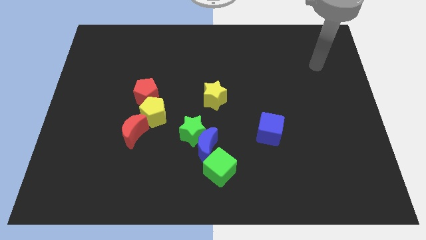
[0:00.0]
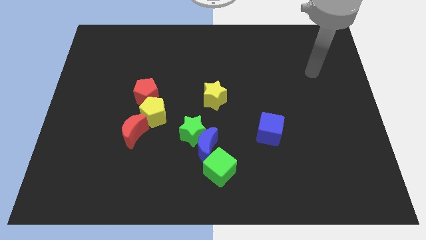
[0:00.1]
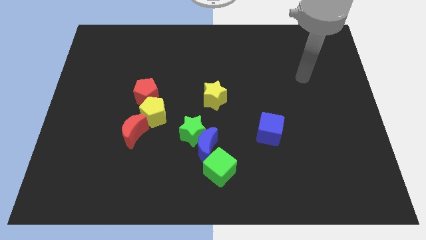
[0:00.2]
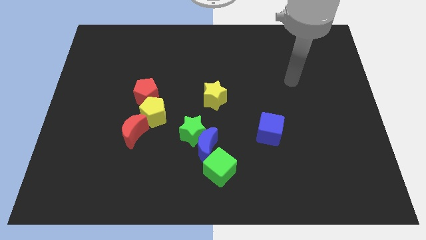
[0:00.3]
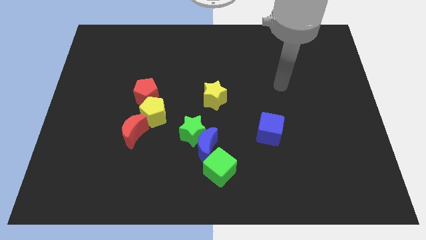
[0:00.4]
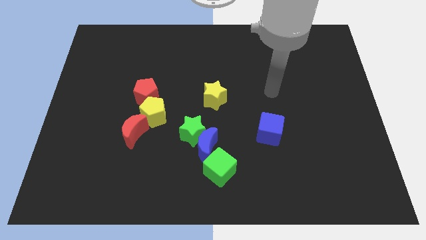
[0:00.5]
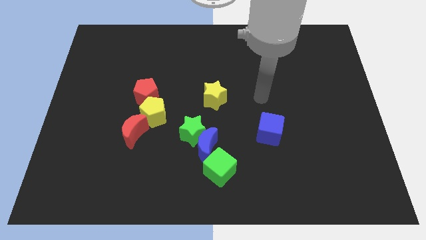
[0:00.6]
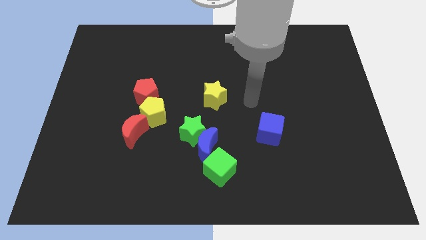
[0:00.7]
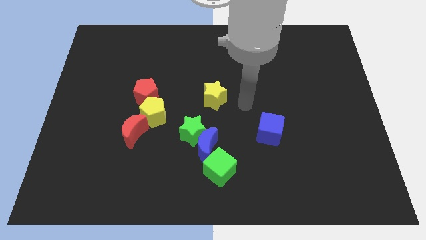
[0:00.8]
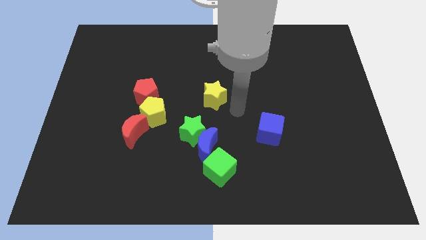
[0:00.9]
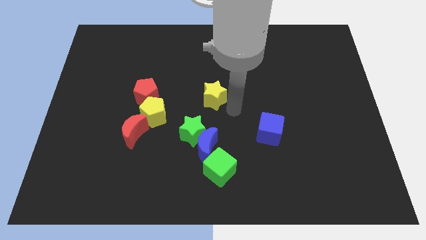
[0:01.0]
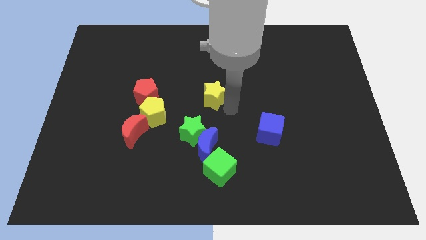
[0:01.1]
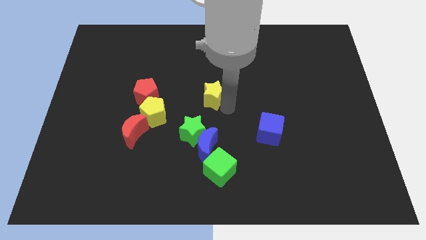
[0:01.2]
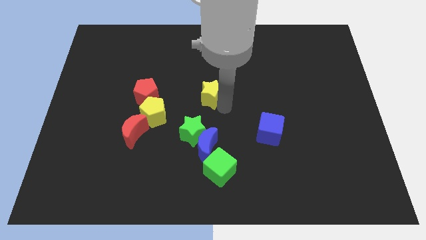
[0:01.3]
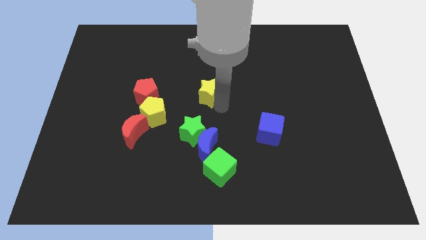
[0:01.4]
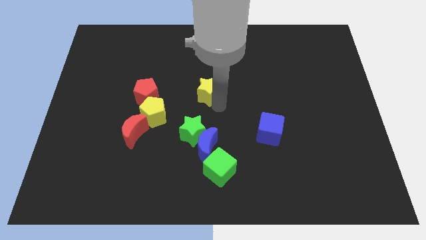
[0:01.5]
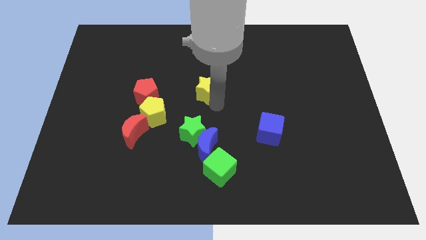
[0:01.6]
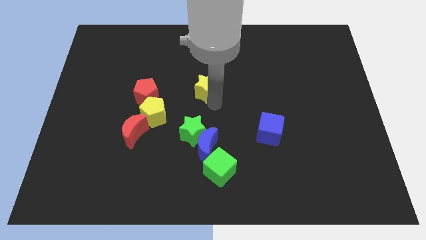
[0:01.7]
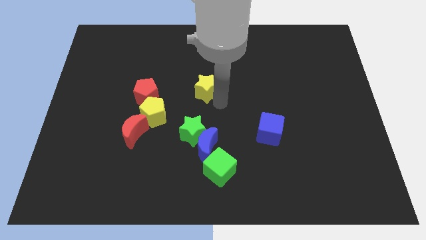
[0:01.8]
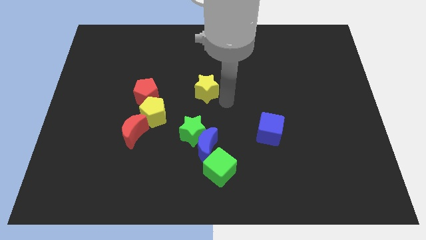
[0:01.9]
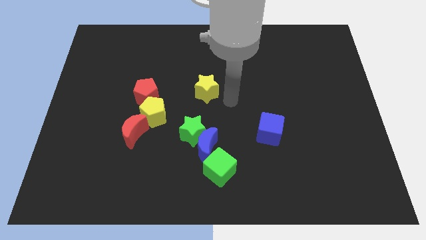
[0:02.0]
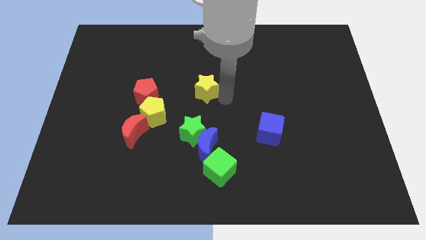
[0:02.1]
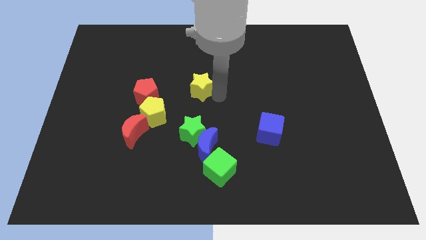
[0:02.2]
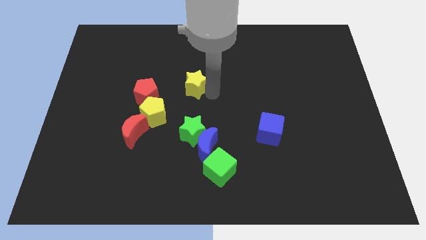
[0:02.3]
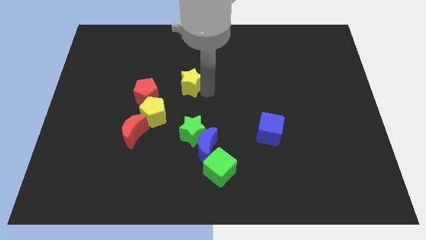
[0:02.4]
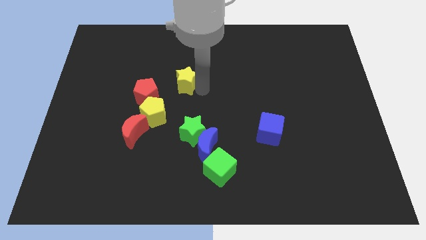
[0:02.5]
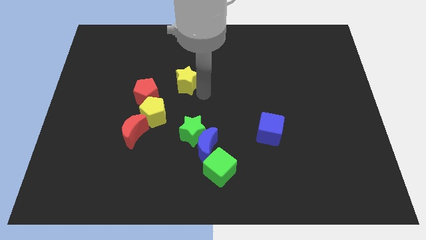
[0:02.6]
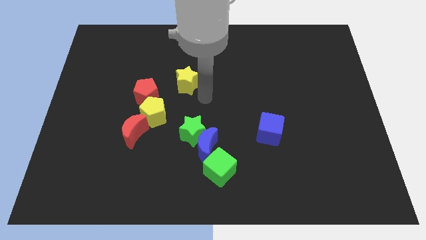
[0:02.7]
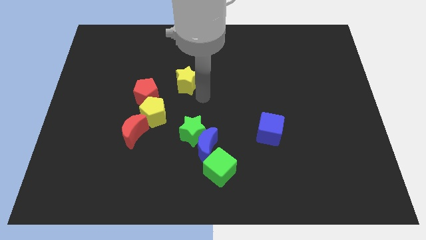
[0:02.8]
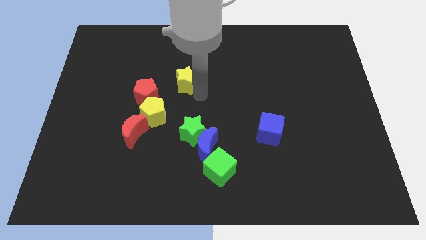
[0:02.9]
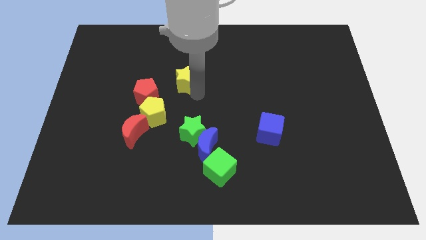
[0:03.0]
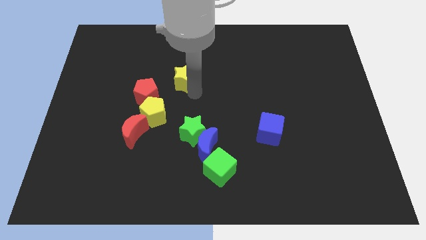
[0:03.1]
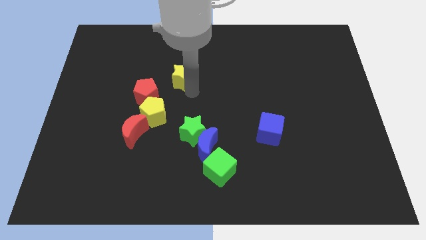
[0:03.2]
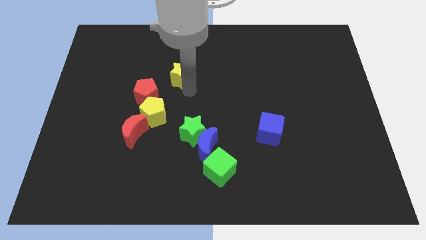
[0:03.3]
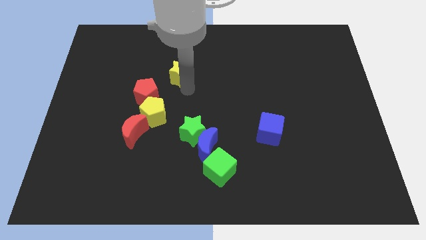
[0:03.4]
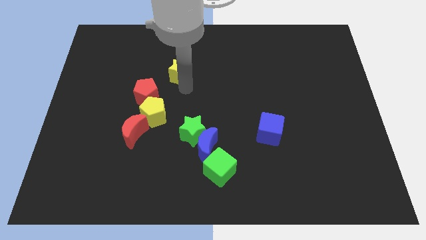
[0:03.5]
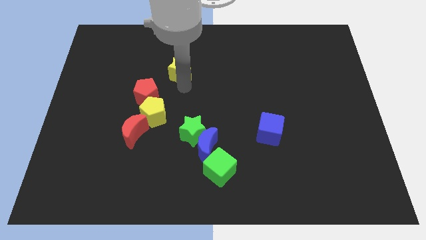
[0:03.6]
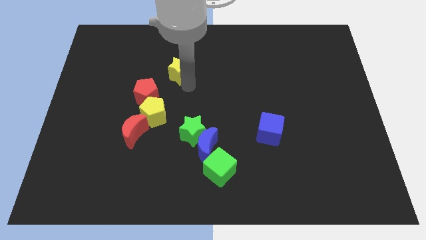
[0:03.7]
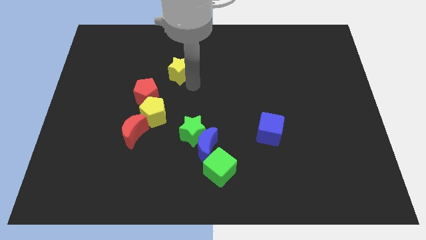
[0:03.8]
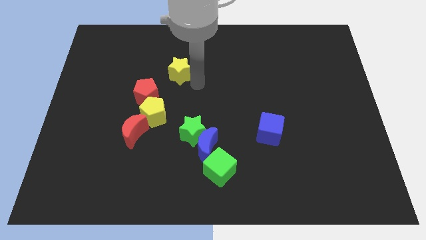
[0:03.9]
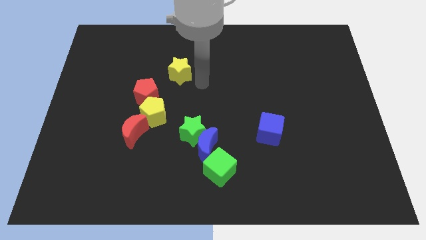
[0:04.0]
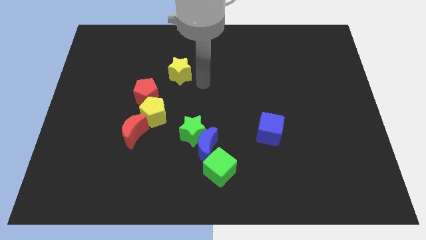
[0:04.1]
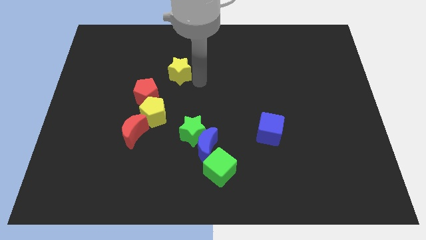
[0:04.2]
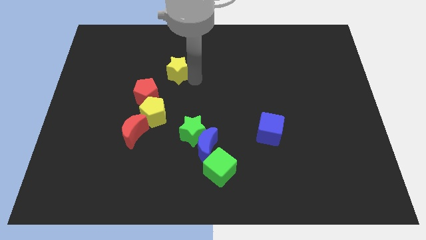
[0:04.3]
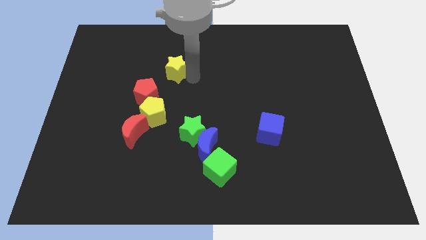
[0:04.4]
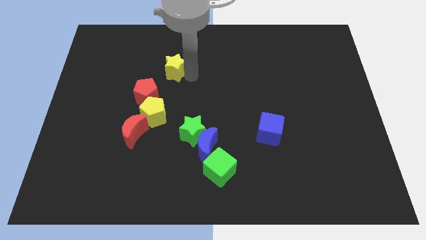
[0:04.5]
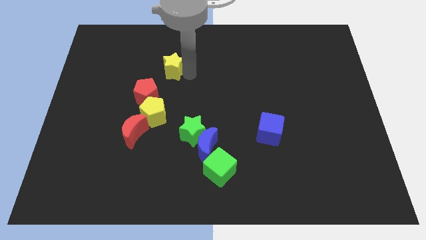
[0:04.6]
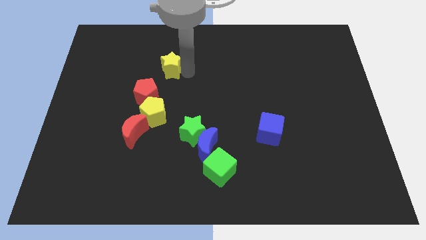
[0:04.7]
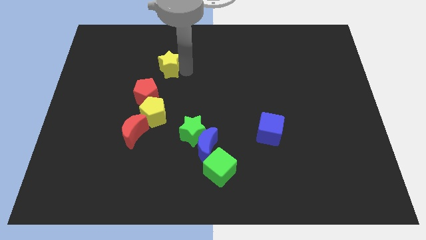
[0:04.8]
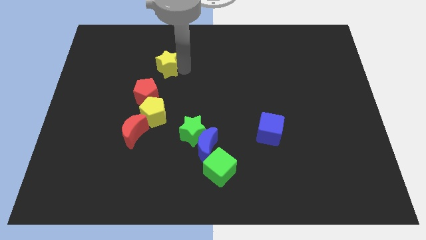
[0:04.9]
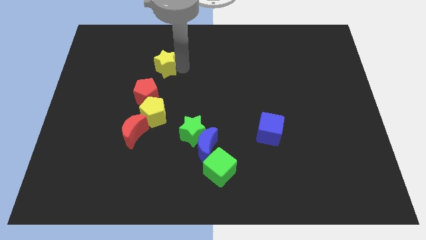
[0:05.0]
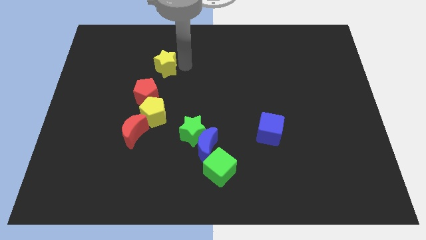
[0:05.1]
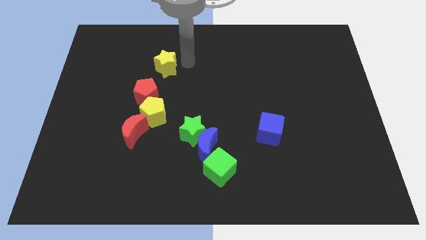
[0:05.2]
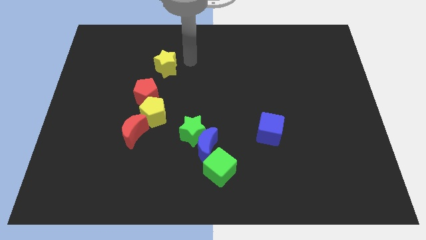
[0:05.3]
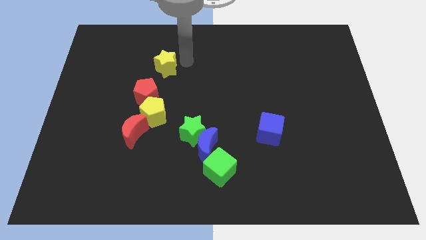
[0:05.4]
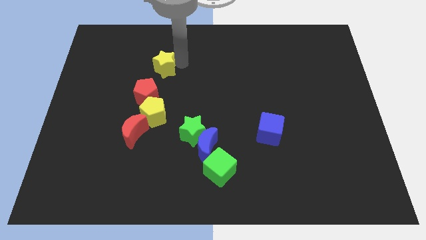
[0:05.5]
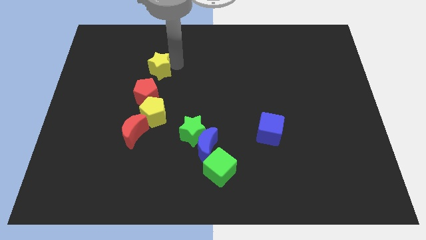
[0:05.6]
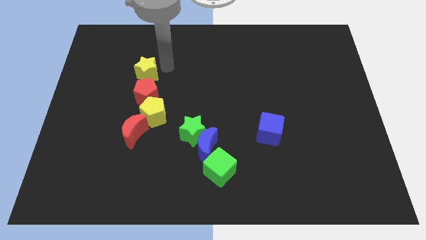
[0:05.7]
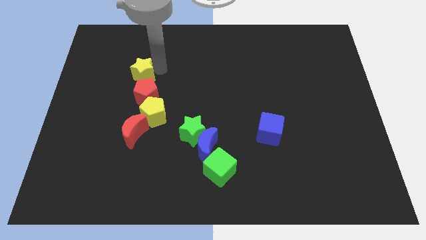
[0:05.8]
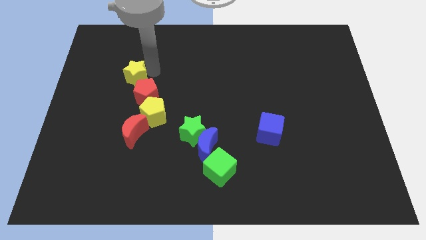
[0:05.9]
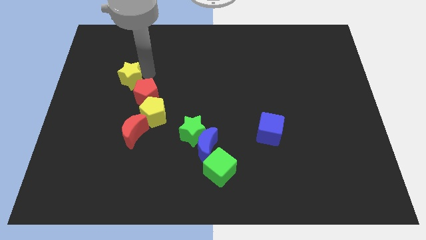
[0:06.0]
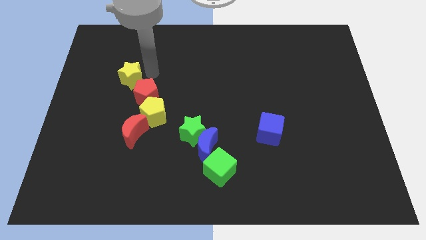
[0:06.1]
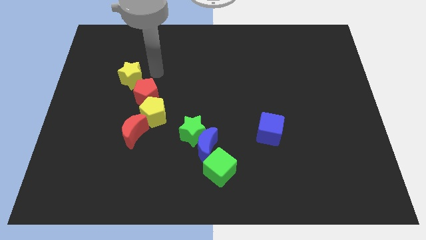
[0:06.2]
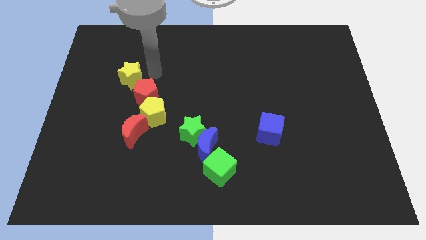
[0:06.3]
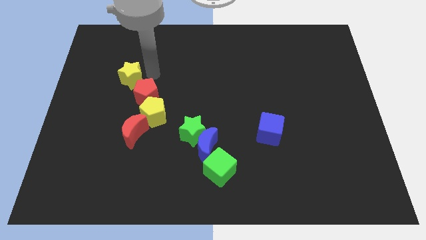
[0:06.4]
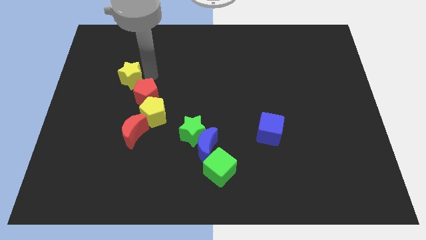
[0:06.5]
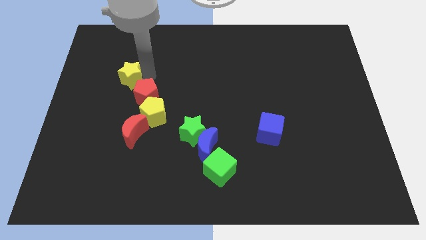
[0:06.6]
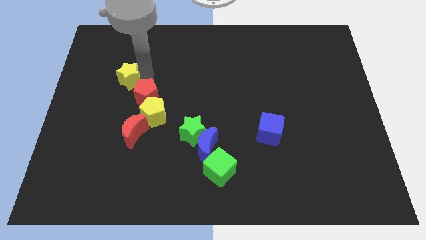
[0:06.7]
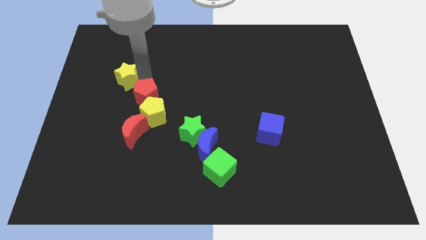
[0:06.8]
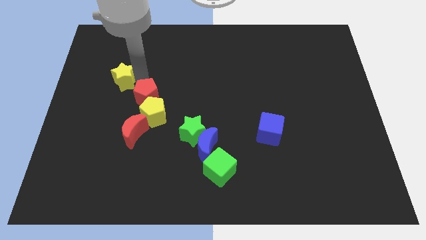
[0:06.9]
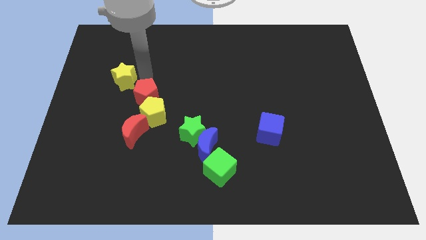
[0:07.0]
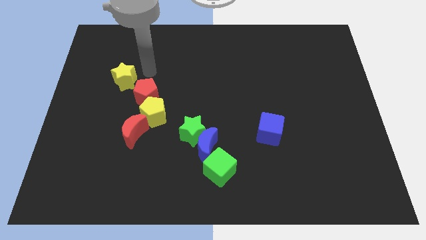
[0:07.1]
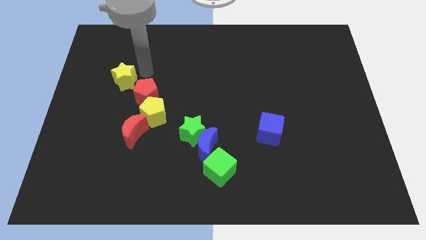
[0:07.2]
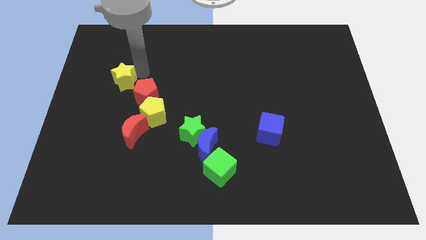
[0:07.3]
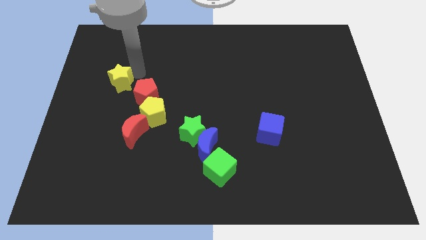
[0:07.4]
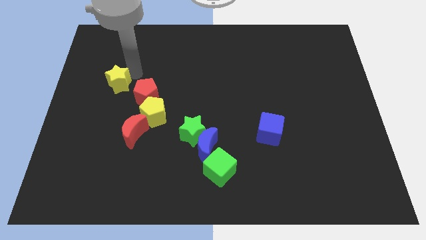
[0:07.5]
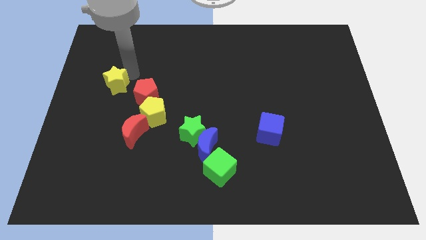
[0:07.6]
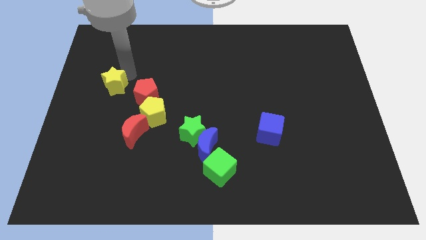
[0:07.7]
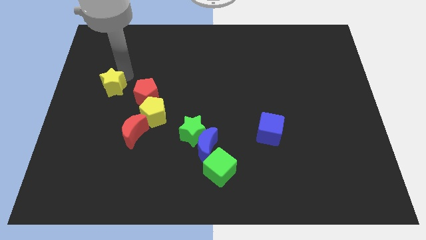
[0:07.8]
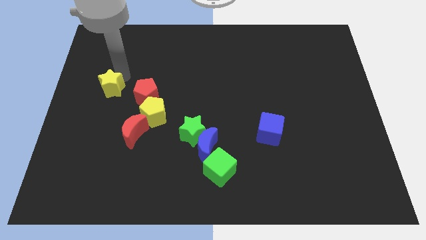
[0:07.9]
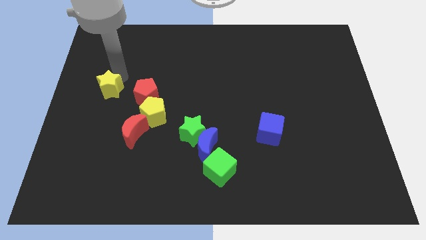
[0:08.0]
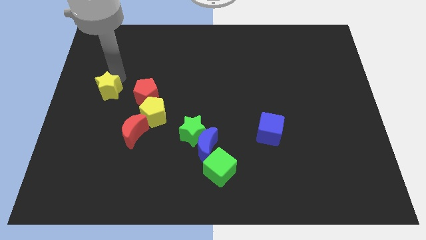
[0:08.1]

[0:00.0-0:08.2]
move the yellow star to the left side of the board
